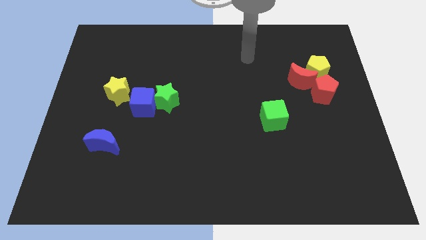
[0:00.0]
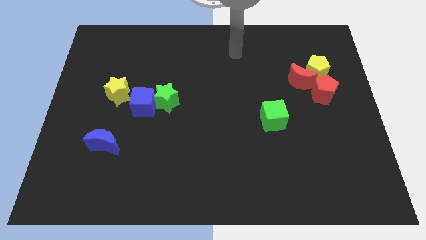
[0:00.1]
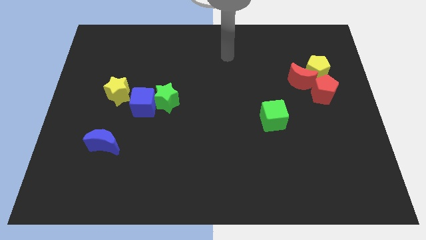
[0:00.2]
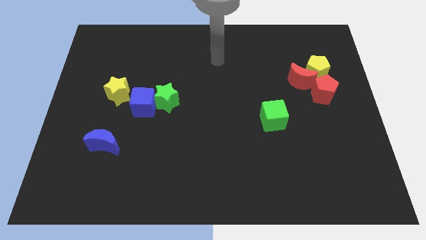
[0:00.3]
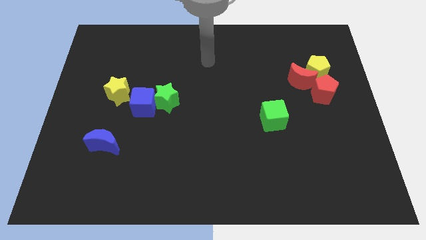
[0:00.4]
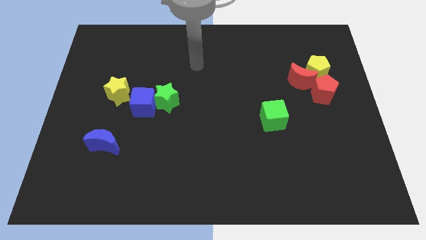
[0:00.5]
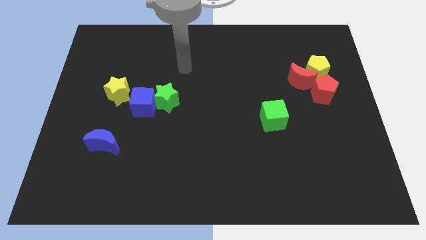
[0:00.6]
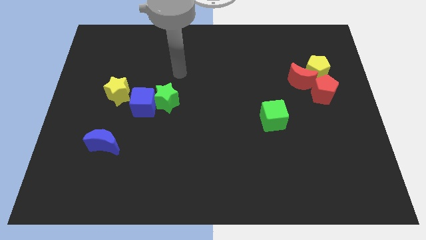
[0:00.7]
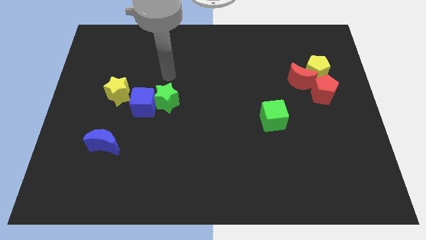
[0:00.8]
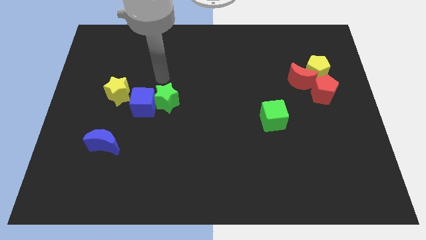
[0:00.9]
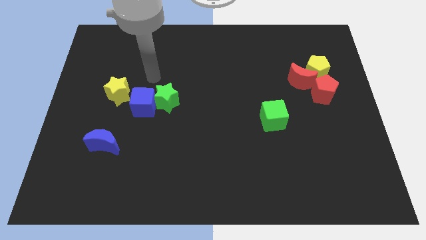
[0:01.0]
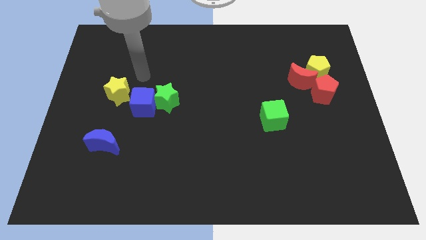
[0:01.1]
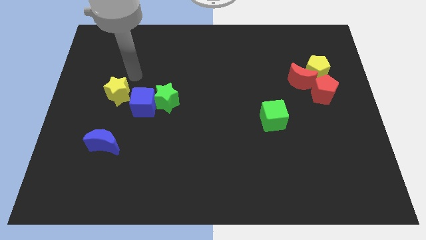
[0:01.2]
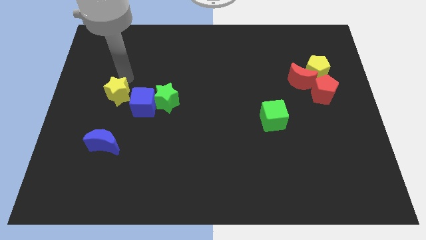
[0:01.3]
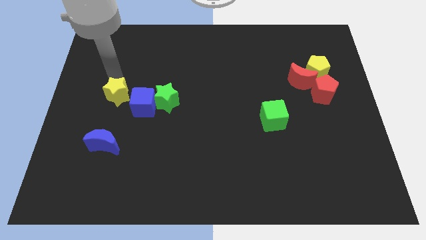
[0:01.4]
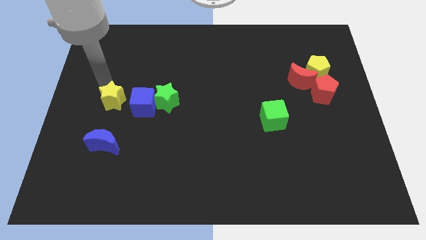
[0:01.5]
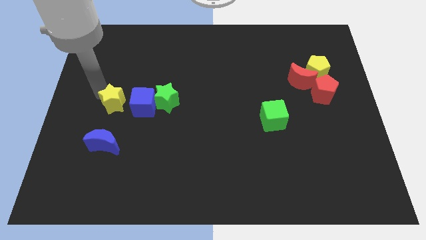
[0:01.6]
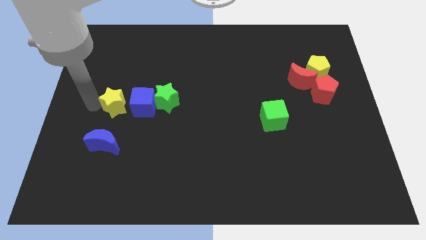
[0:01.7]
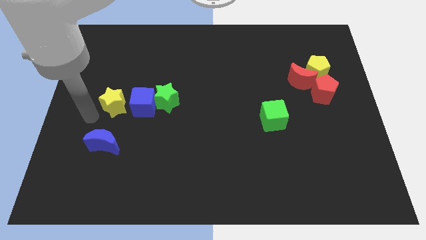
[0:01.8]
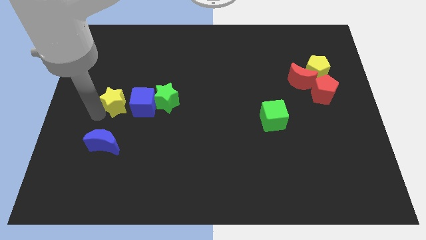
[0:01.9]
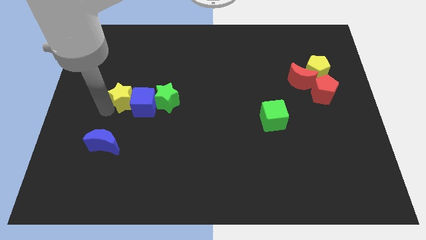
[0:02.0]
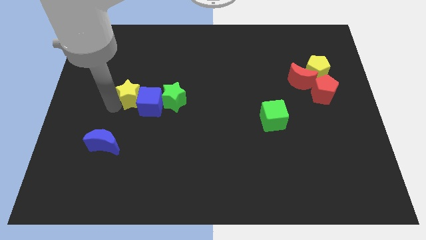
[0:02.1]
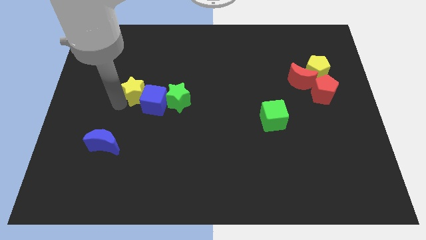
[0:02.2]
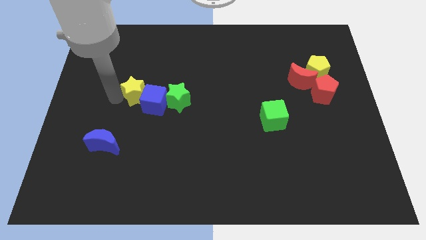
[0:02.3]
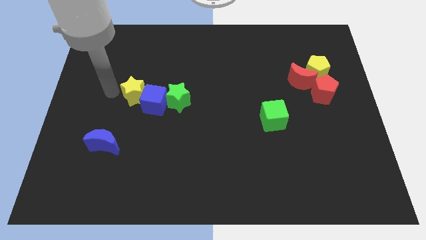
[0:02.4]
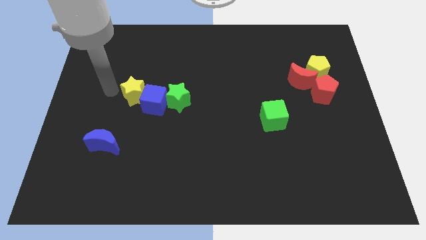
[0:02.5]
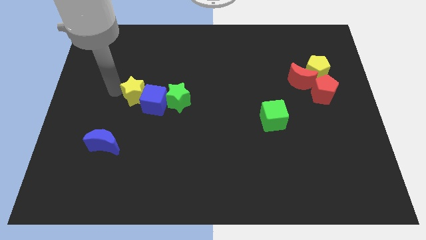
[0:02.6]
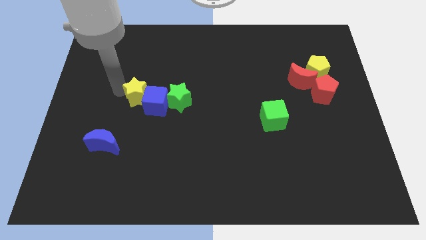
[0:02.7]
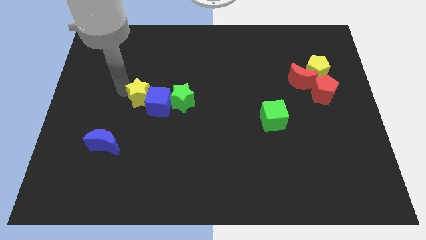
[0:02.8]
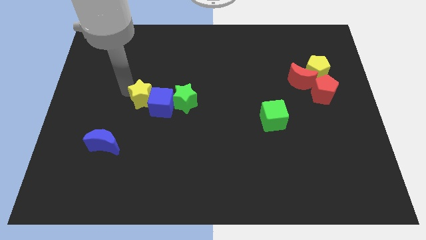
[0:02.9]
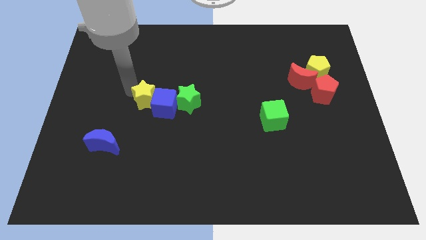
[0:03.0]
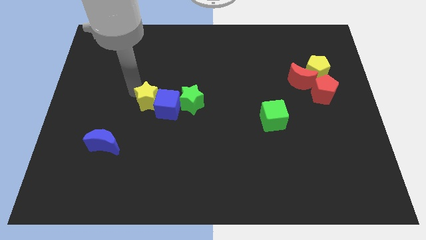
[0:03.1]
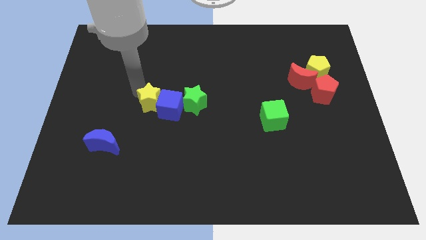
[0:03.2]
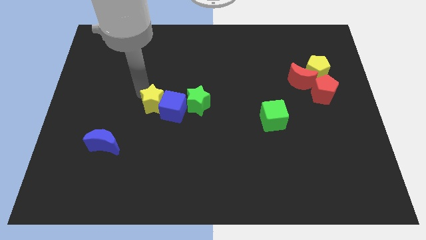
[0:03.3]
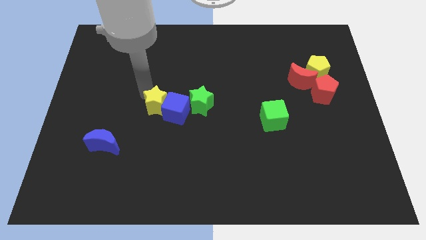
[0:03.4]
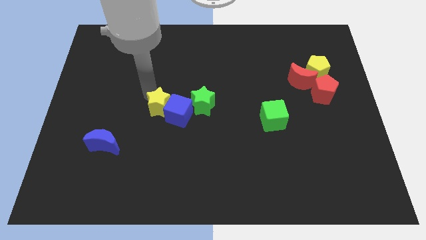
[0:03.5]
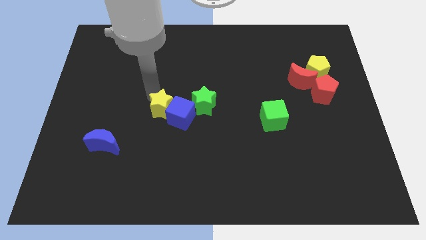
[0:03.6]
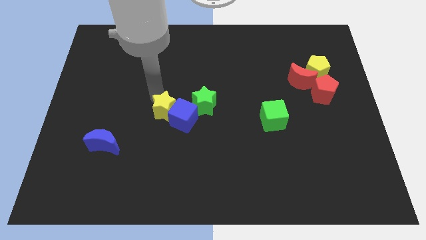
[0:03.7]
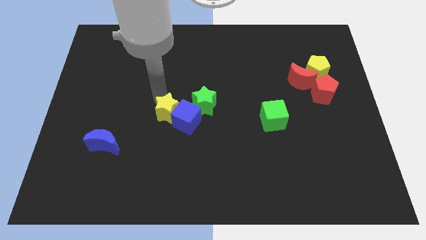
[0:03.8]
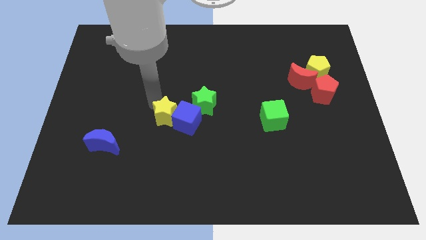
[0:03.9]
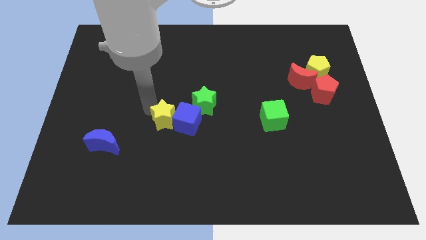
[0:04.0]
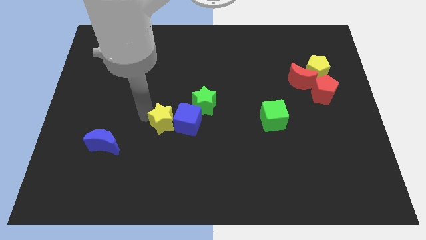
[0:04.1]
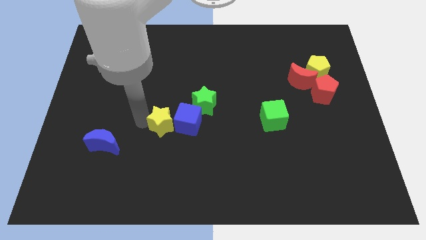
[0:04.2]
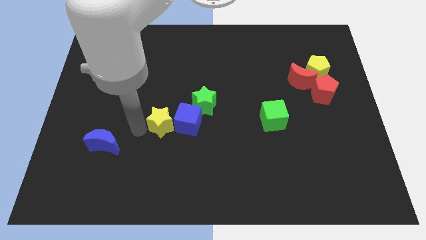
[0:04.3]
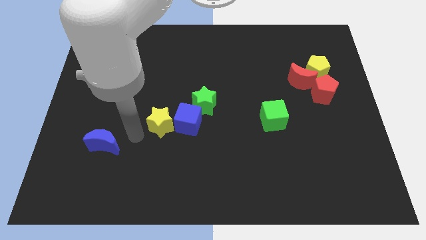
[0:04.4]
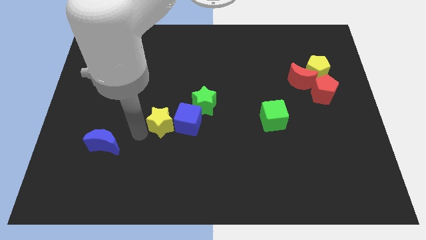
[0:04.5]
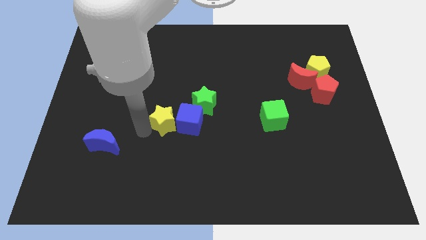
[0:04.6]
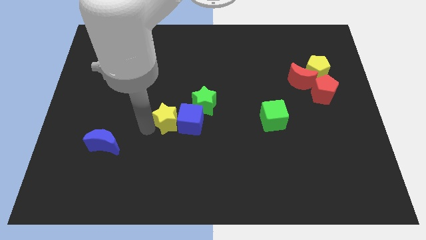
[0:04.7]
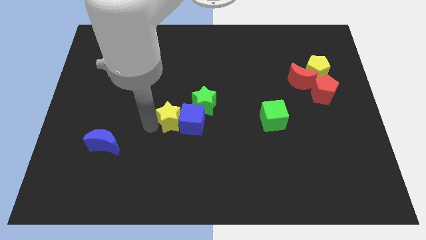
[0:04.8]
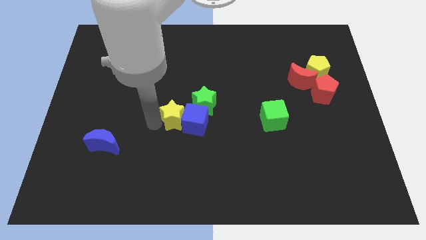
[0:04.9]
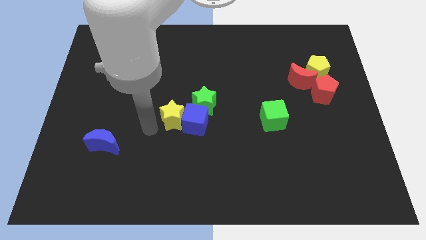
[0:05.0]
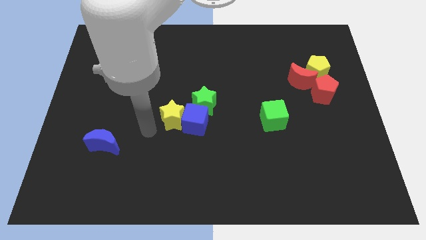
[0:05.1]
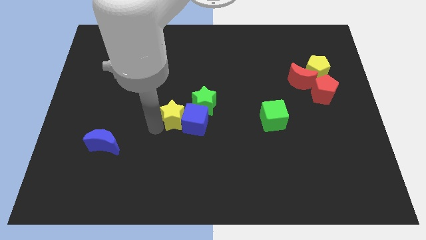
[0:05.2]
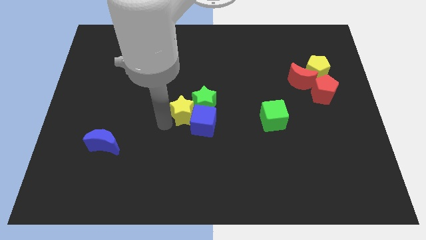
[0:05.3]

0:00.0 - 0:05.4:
push the yellow star towards the green star

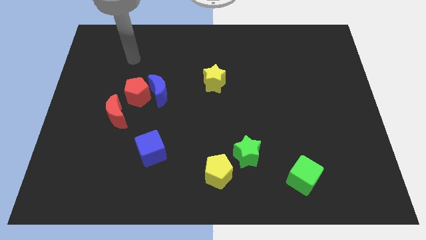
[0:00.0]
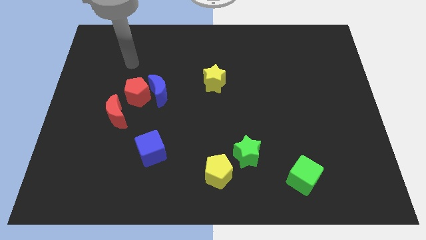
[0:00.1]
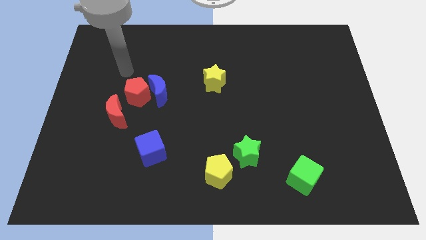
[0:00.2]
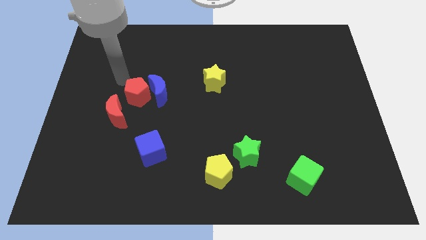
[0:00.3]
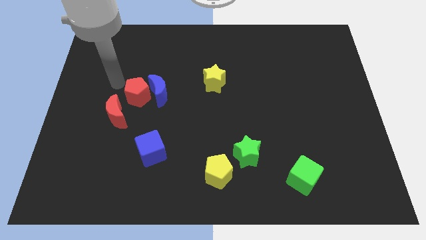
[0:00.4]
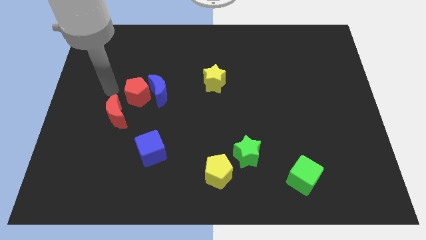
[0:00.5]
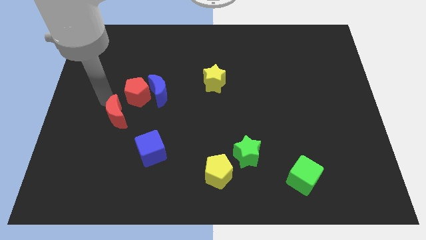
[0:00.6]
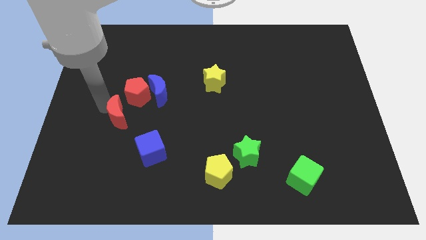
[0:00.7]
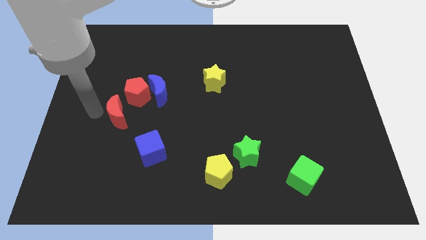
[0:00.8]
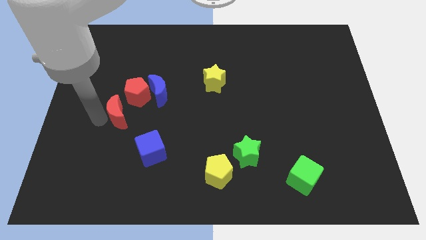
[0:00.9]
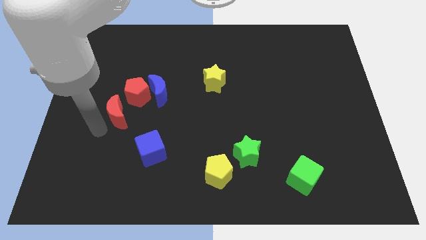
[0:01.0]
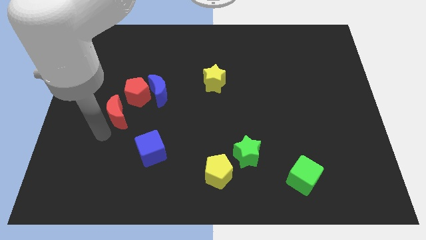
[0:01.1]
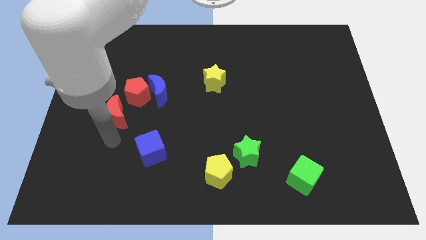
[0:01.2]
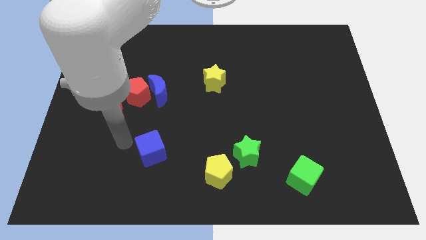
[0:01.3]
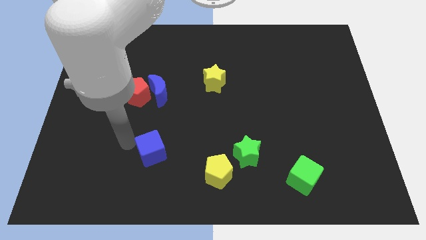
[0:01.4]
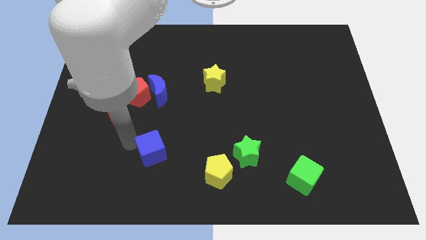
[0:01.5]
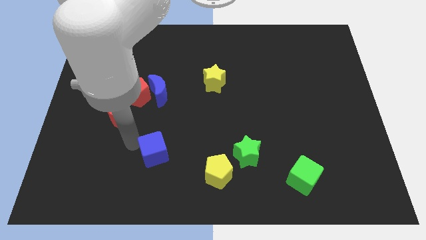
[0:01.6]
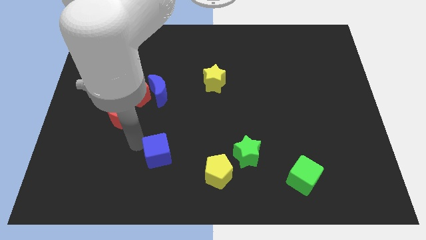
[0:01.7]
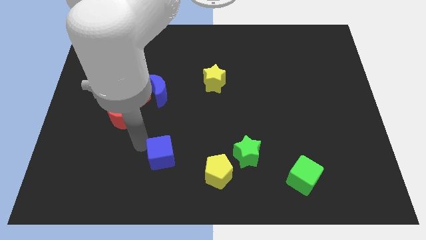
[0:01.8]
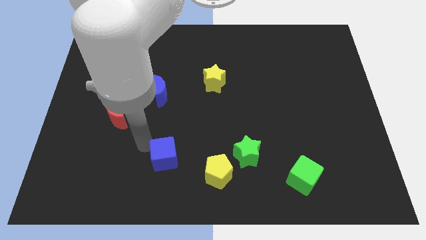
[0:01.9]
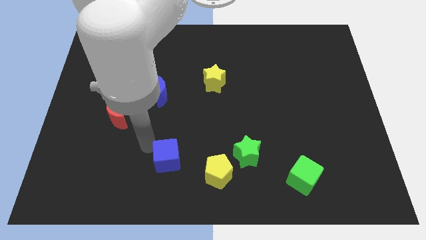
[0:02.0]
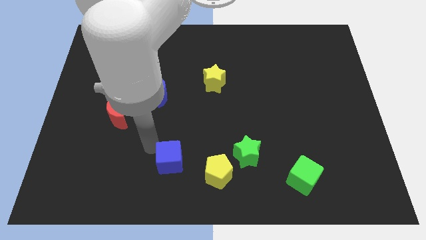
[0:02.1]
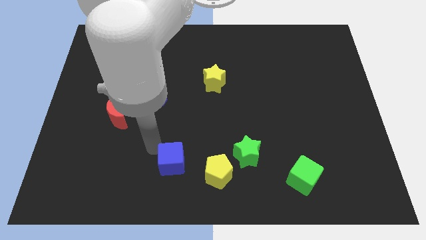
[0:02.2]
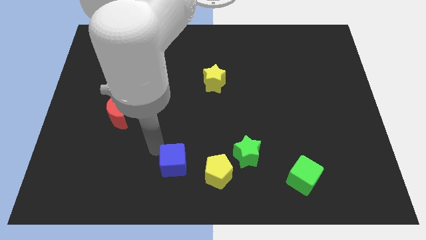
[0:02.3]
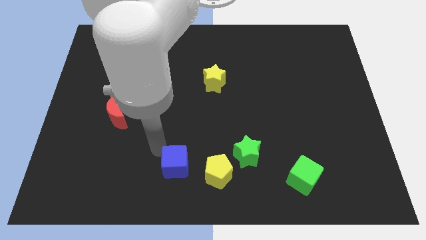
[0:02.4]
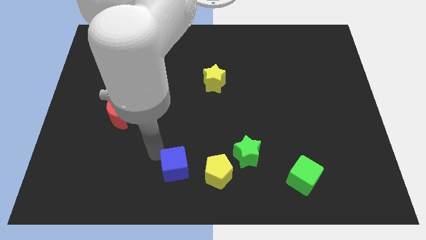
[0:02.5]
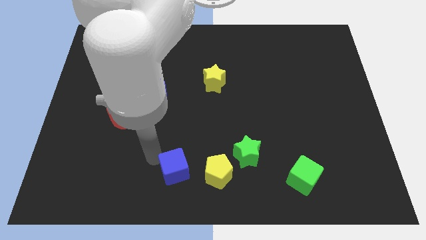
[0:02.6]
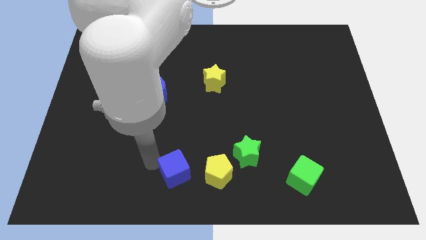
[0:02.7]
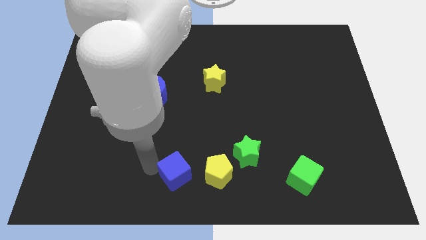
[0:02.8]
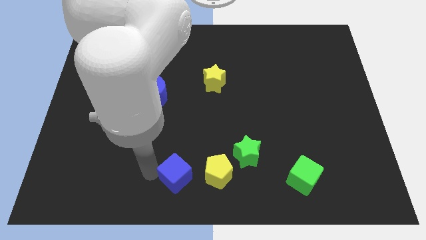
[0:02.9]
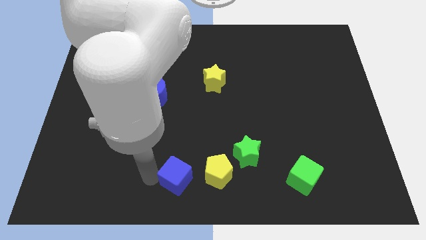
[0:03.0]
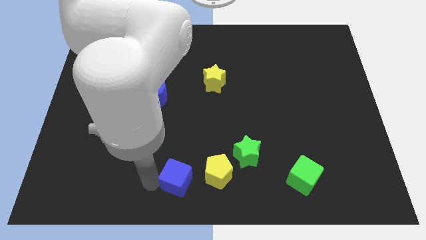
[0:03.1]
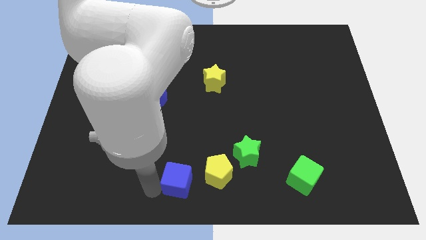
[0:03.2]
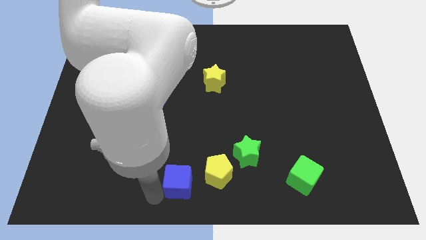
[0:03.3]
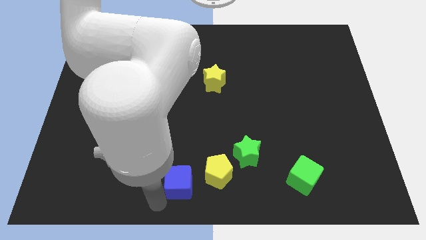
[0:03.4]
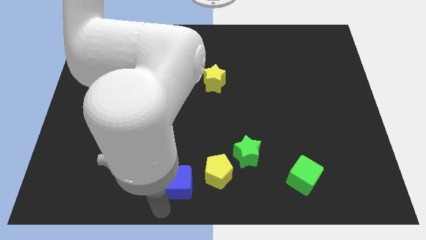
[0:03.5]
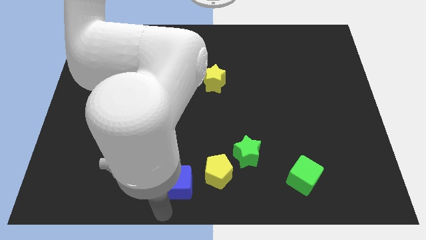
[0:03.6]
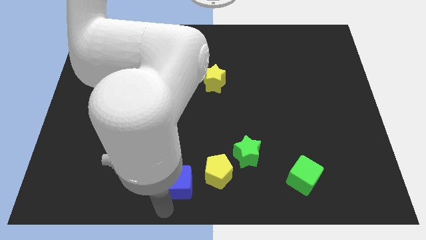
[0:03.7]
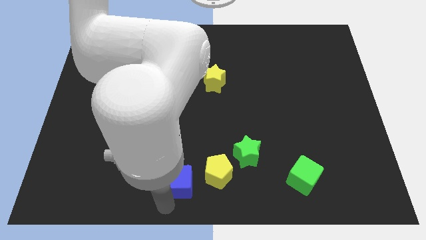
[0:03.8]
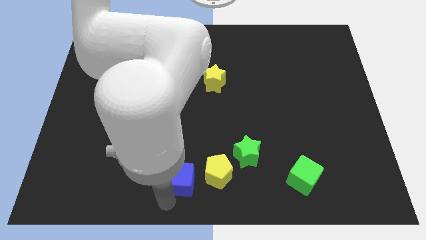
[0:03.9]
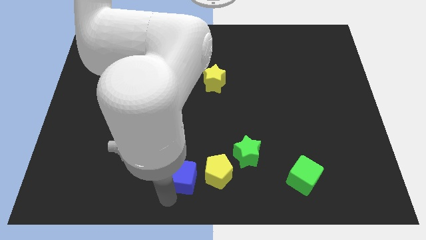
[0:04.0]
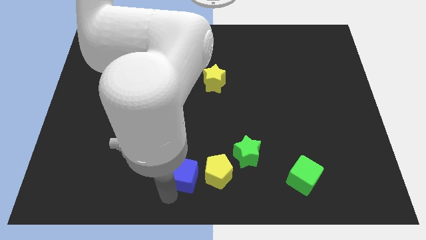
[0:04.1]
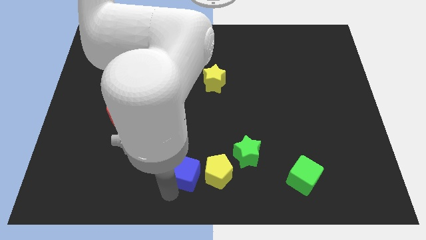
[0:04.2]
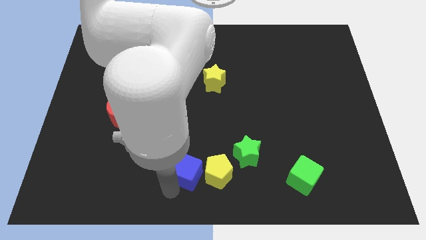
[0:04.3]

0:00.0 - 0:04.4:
move the blue cube close to the yellow pentagon
